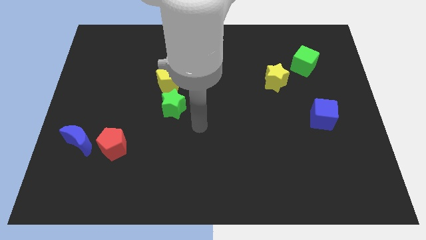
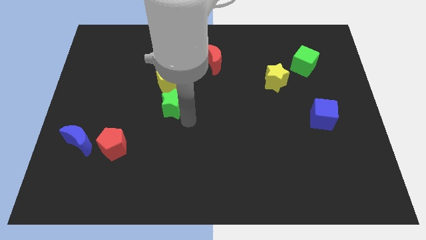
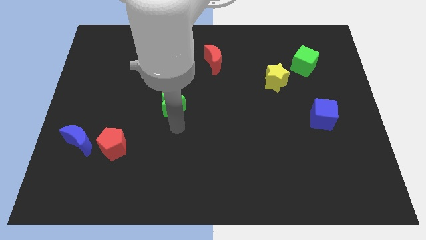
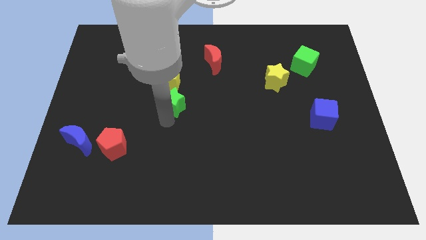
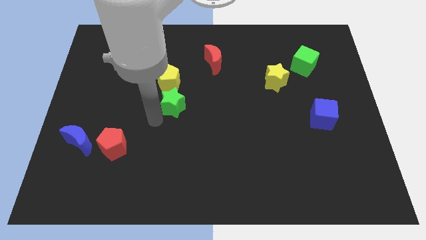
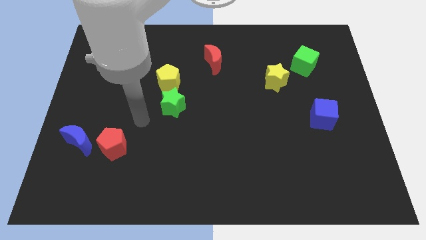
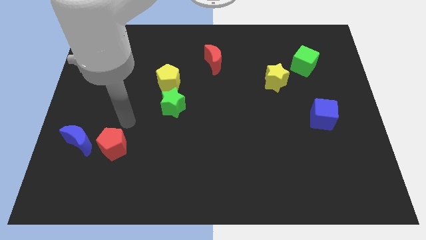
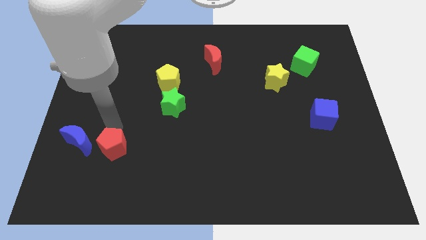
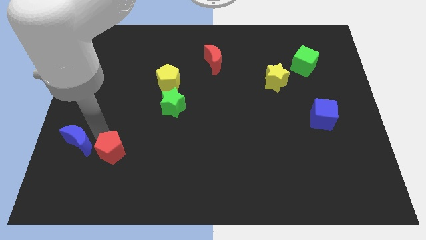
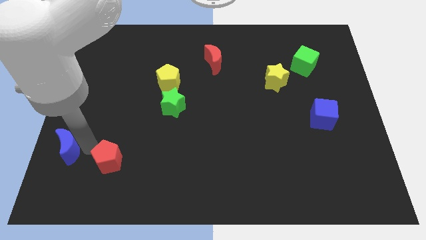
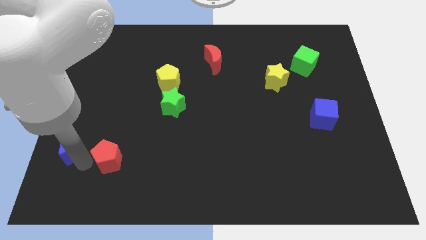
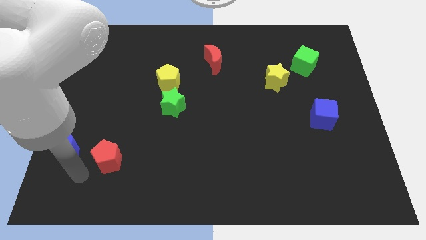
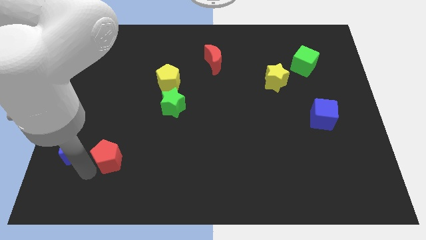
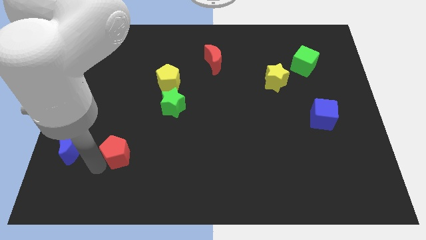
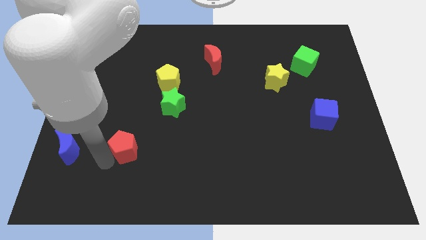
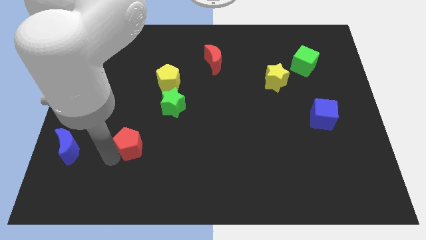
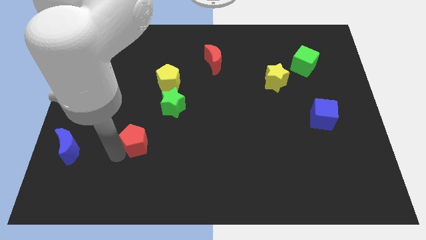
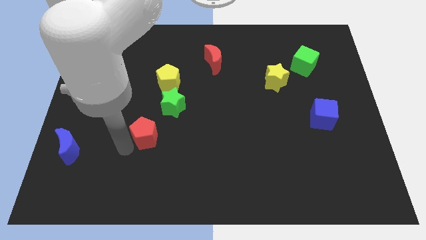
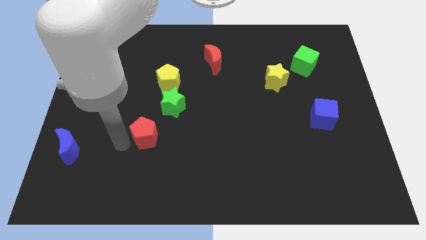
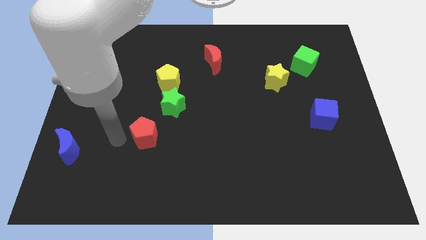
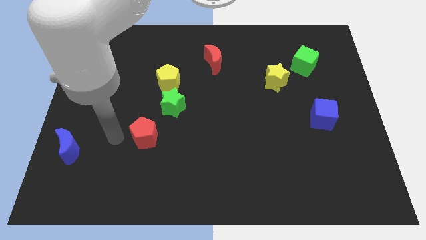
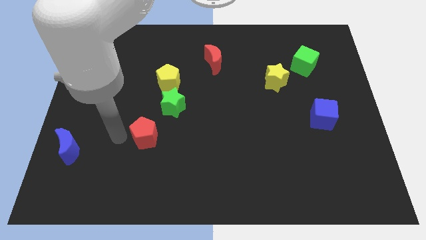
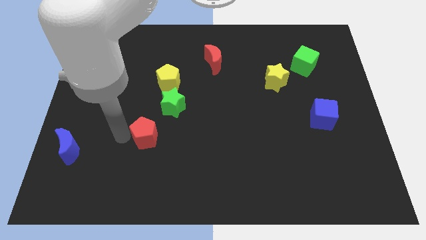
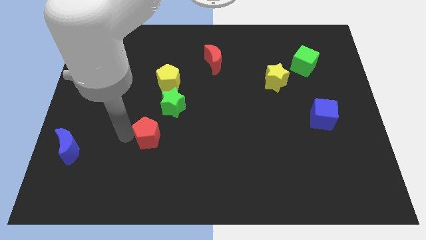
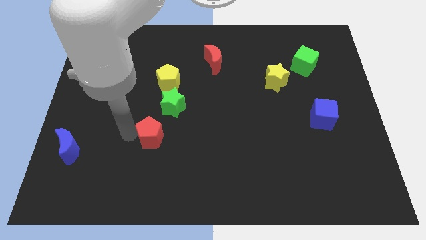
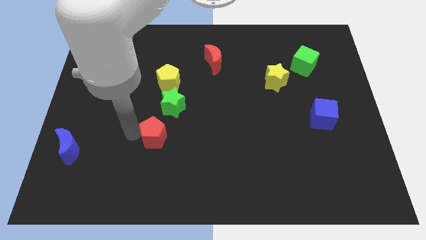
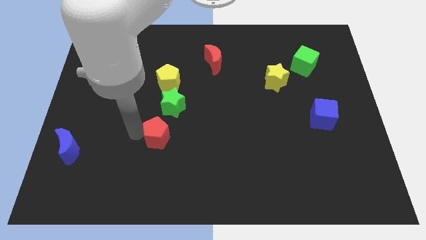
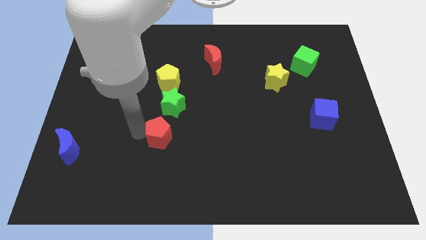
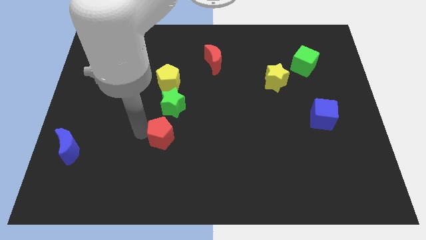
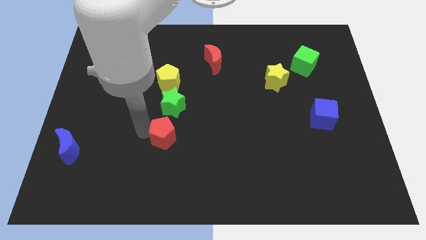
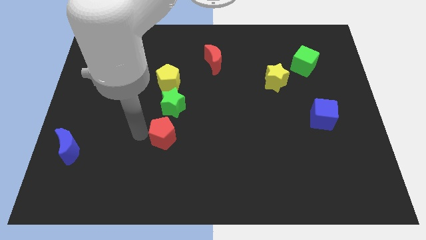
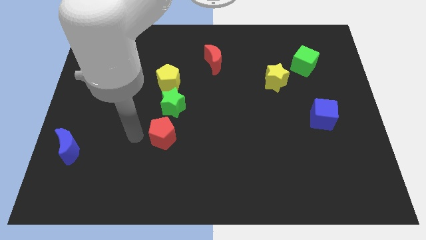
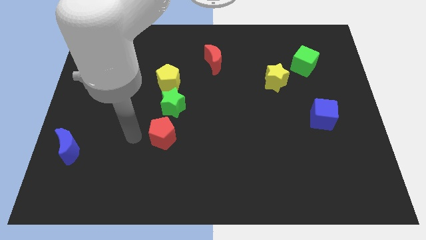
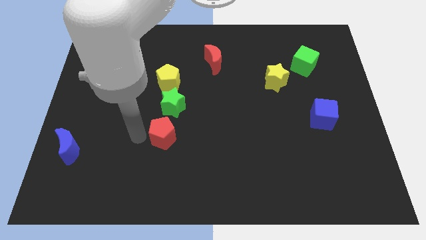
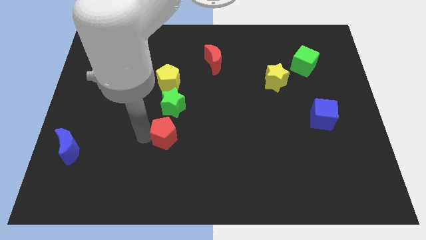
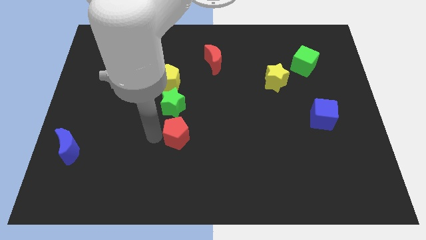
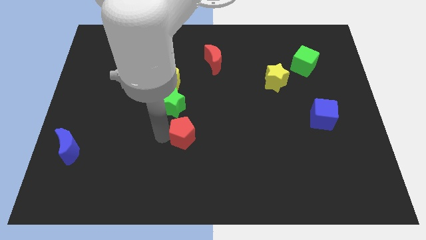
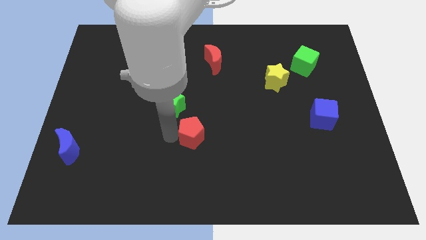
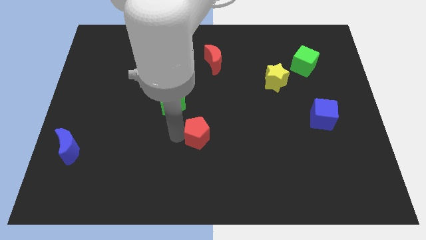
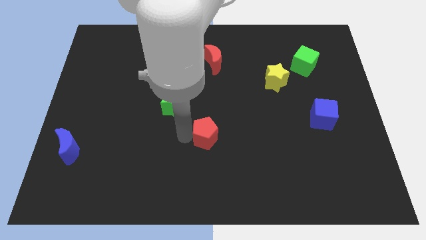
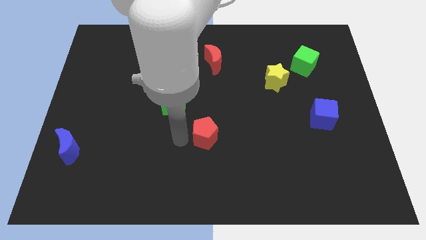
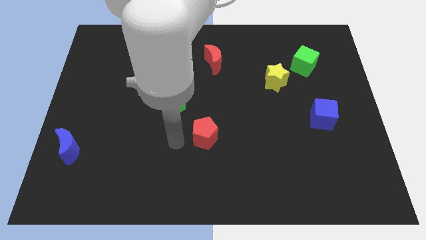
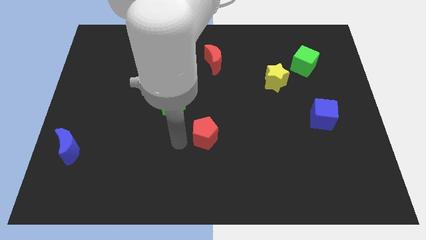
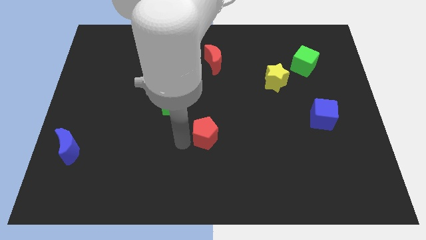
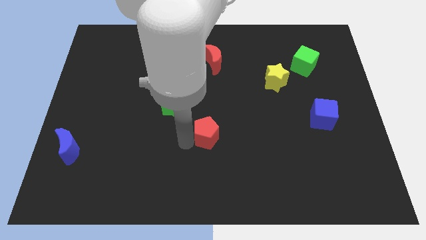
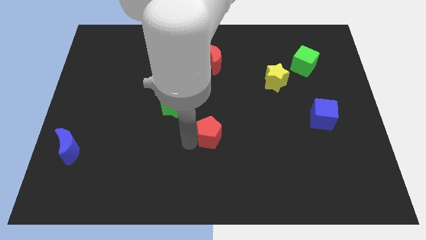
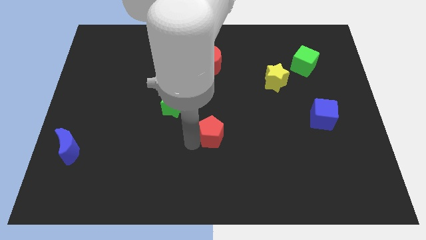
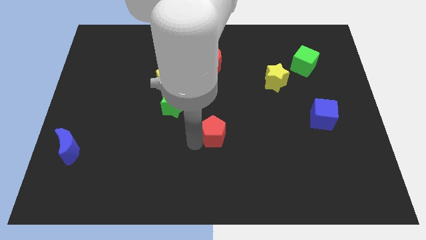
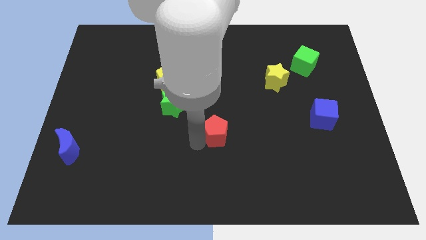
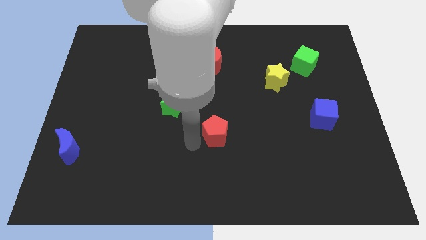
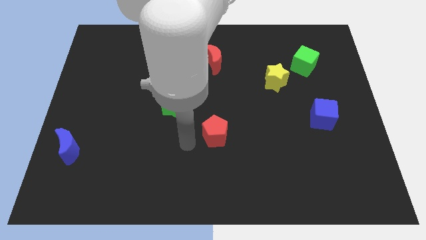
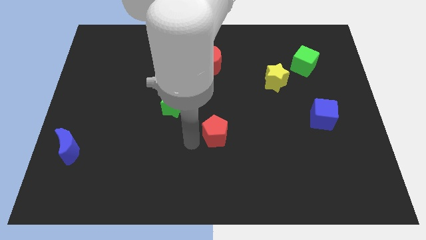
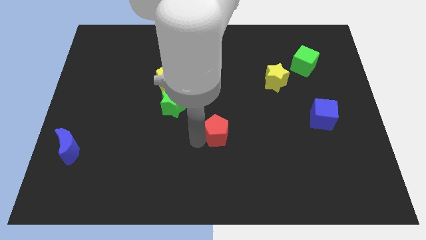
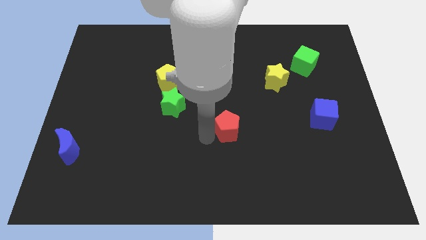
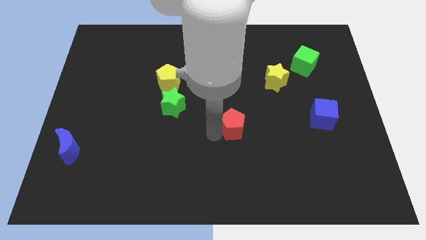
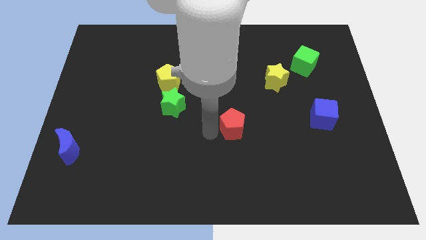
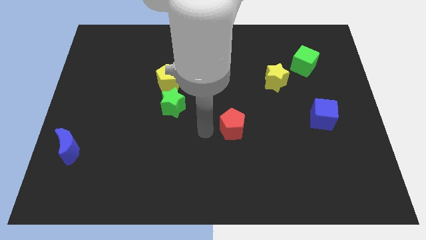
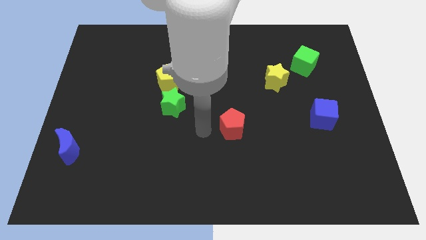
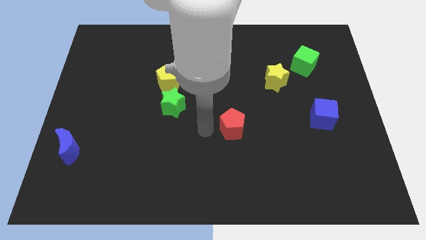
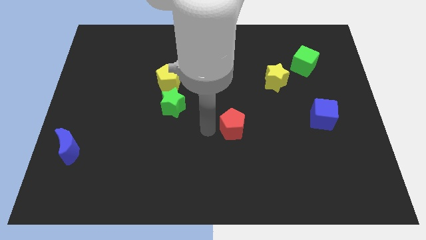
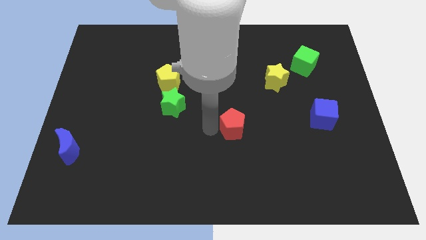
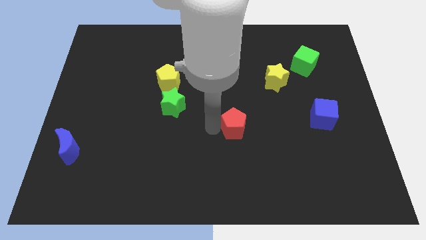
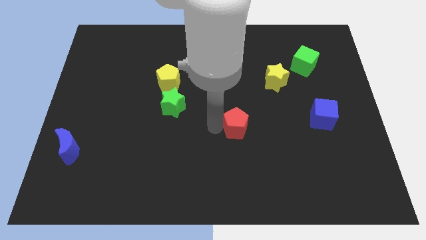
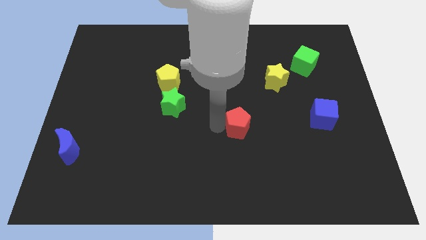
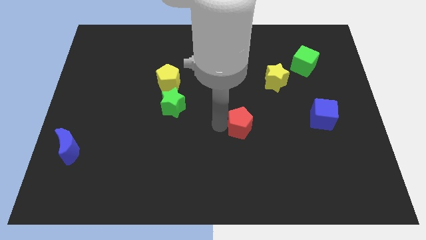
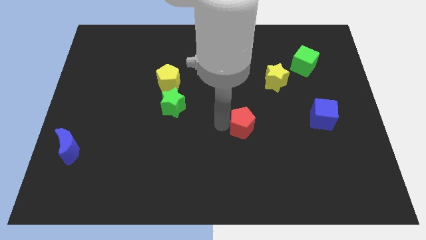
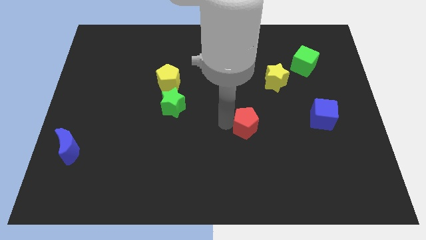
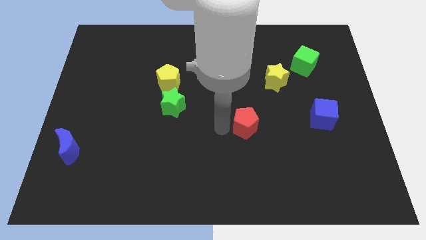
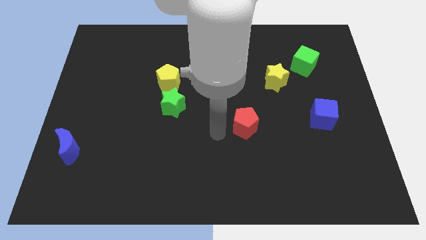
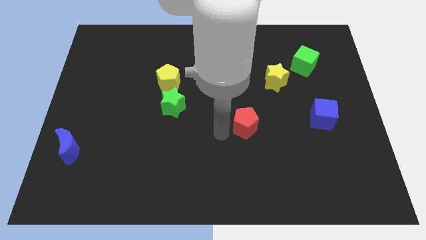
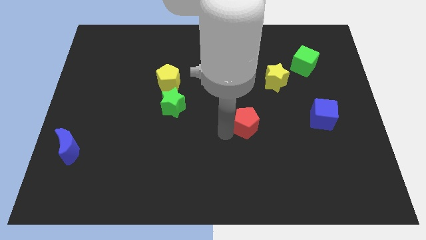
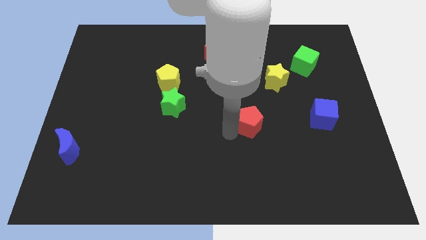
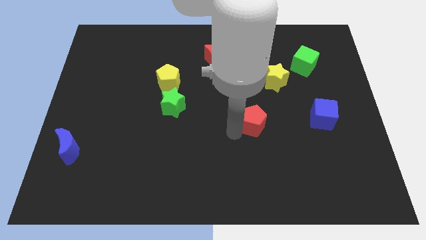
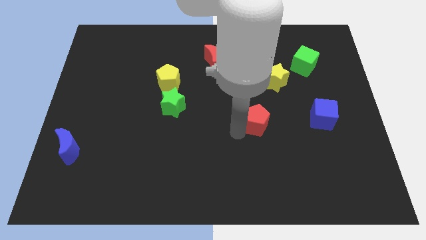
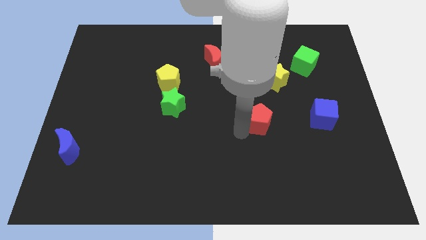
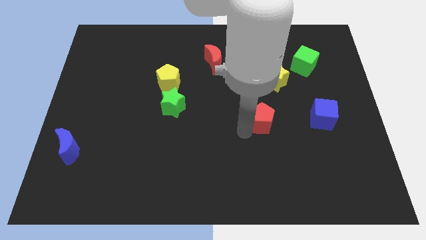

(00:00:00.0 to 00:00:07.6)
slide the red pentagon to the bottom of the yellow star
